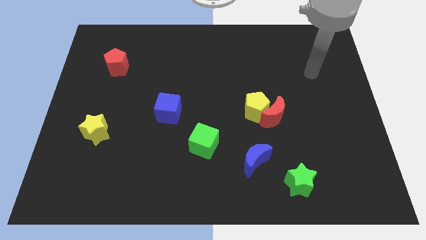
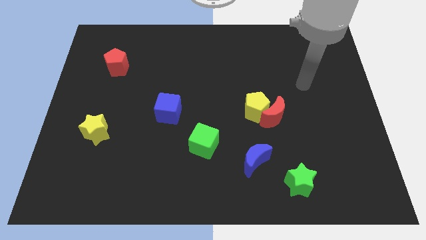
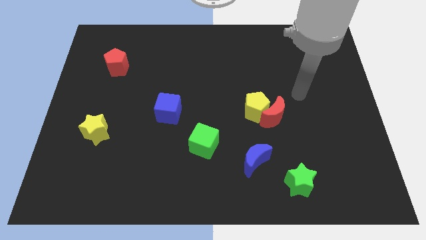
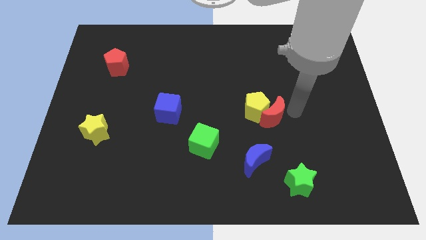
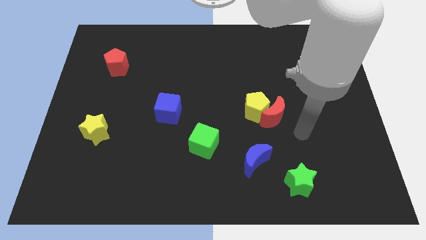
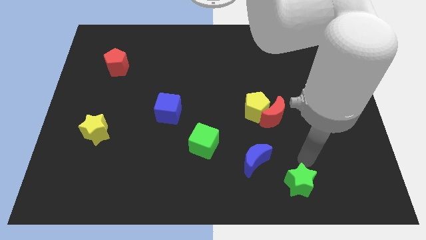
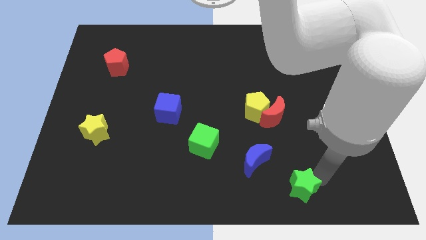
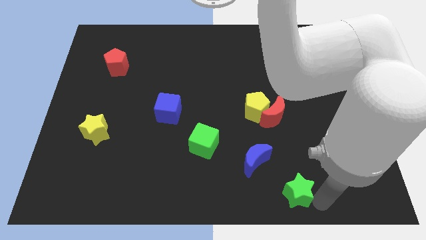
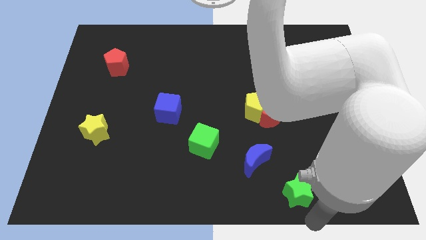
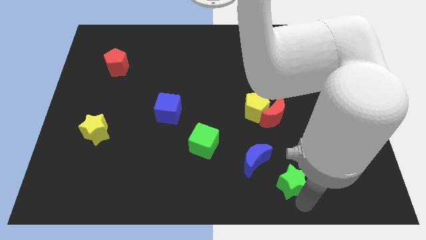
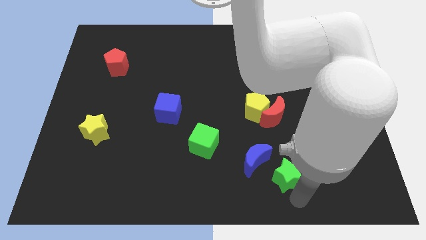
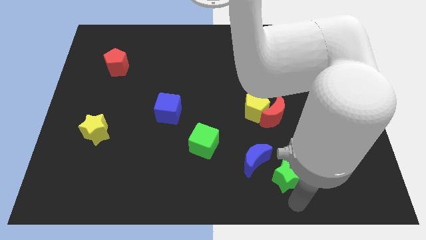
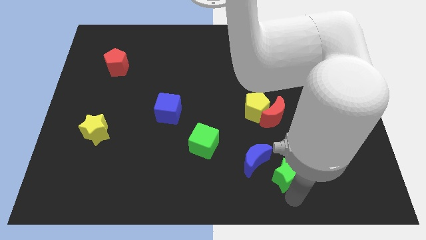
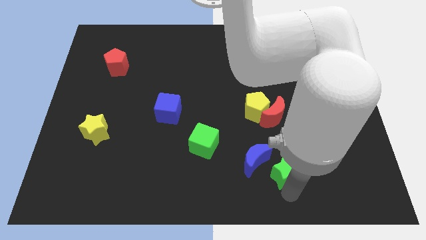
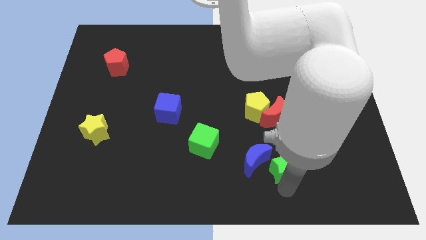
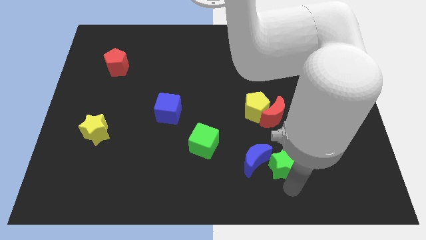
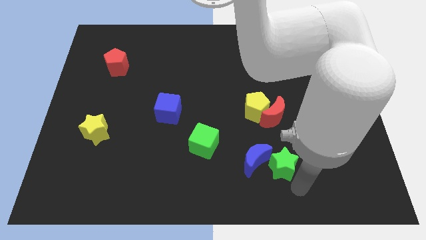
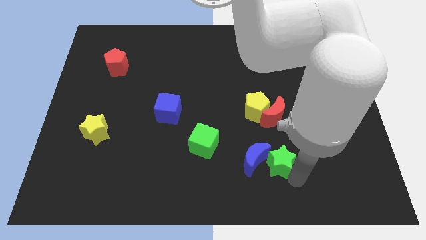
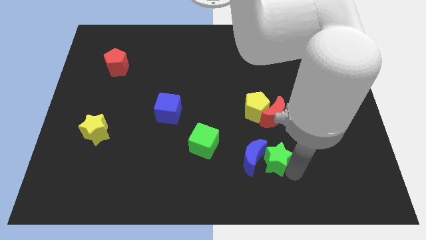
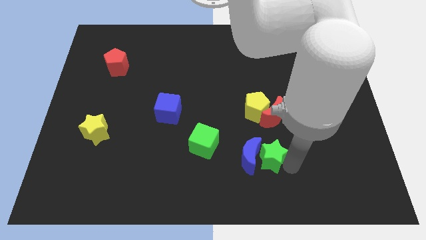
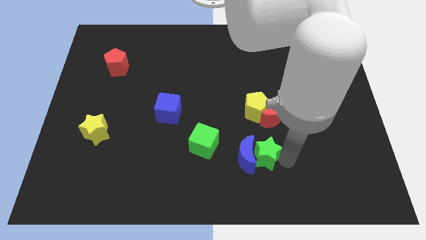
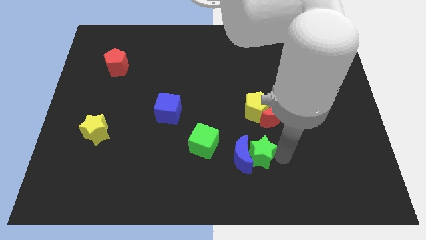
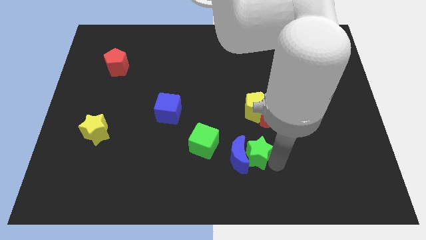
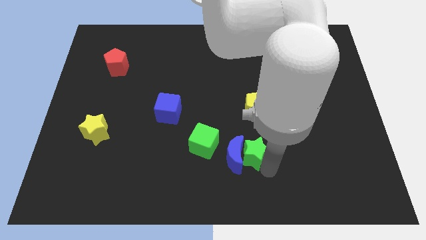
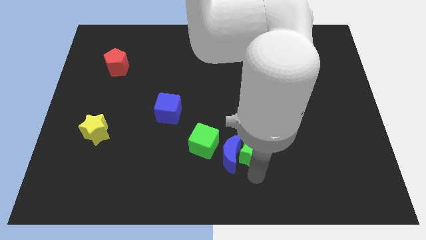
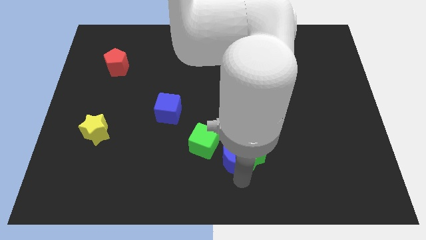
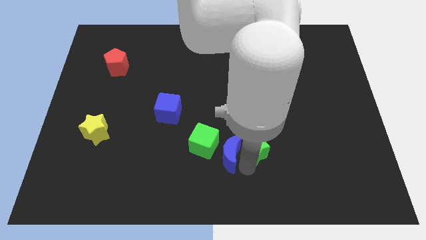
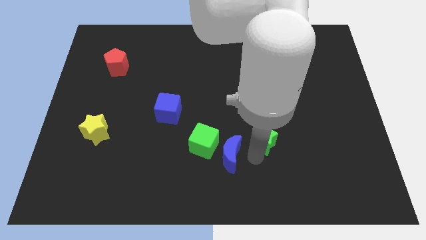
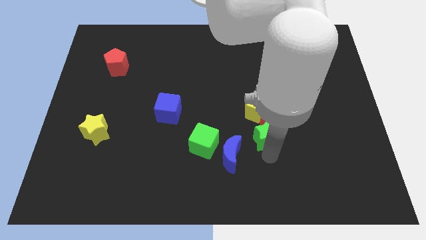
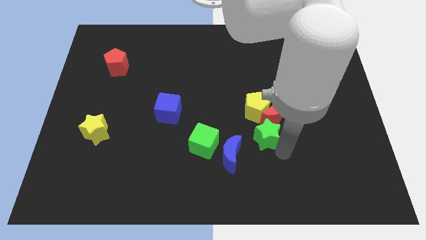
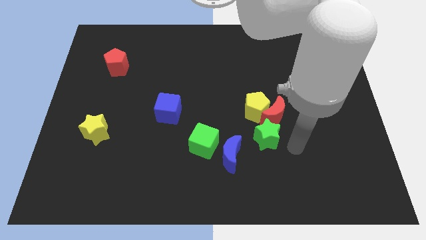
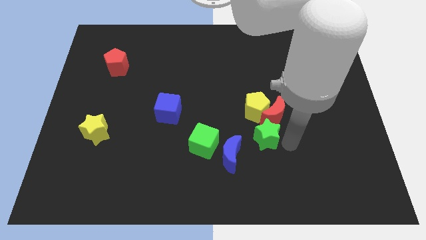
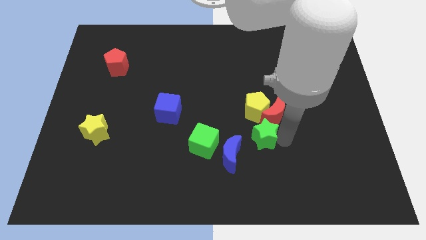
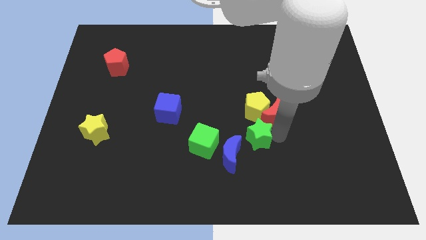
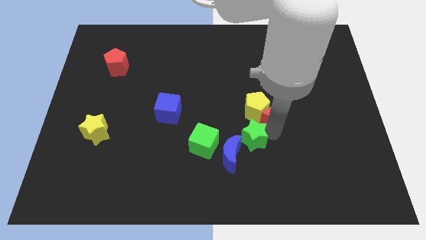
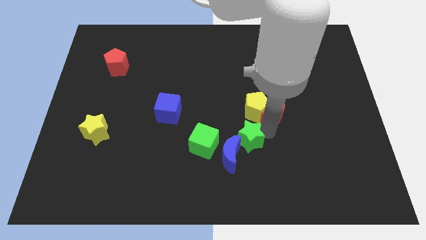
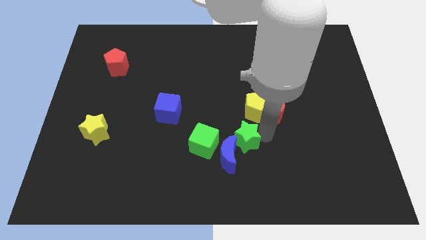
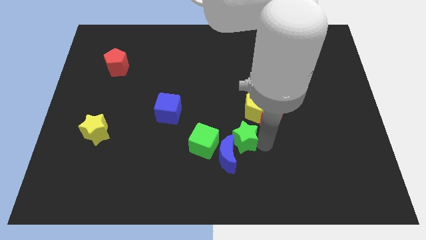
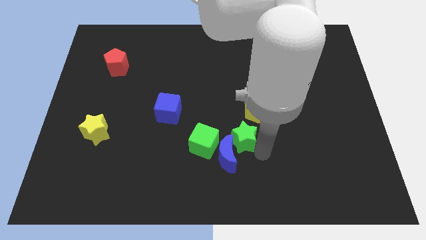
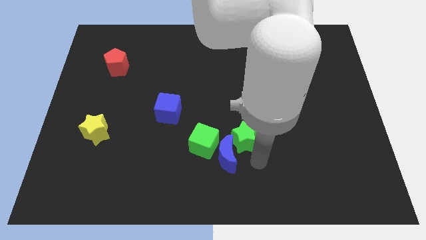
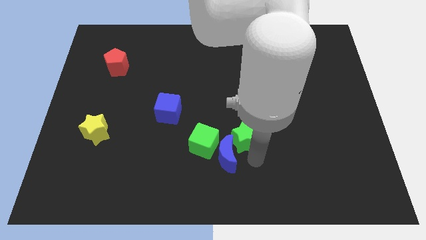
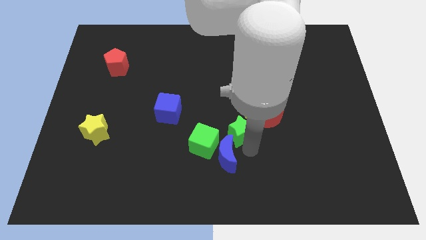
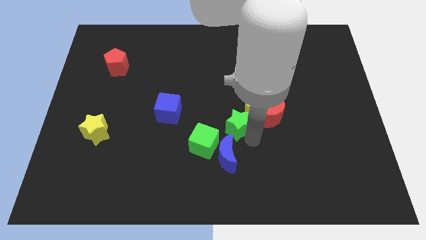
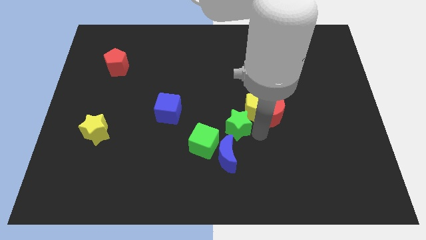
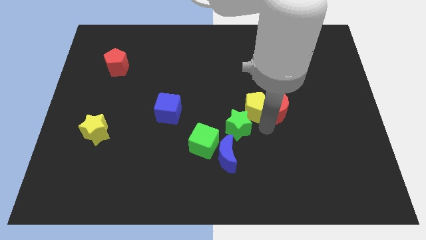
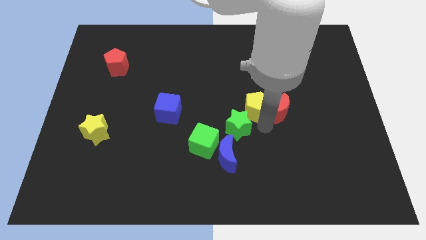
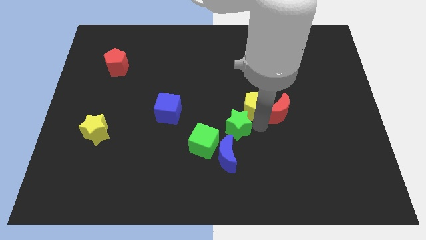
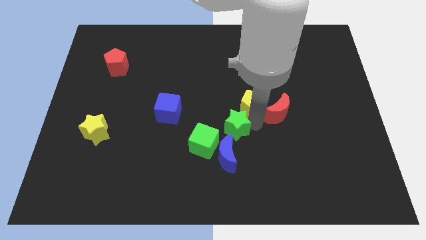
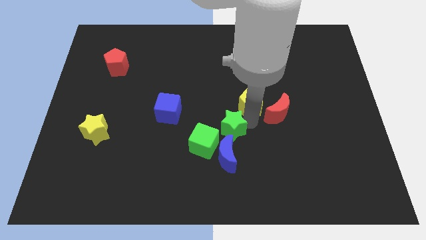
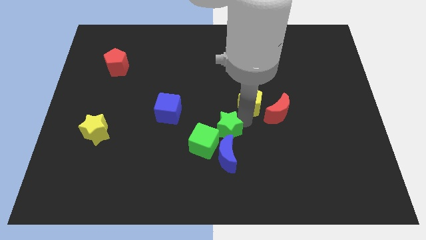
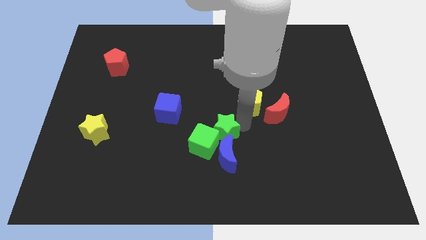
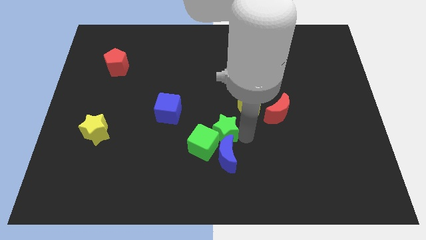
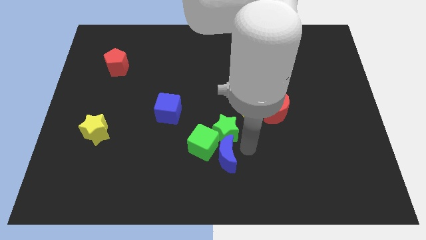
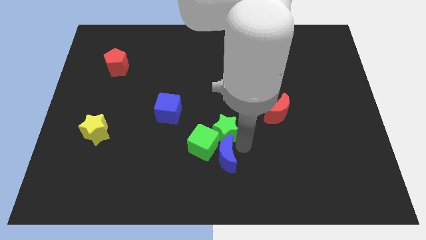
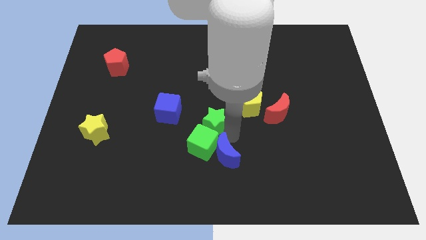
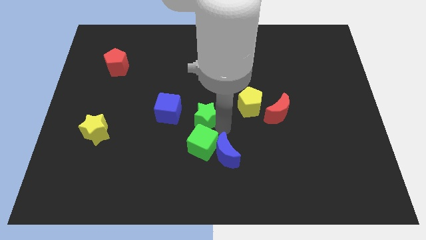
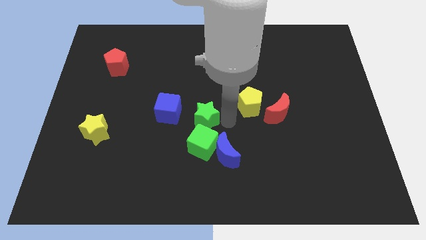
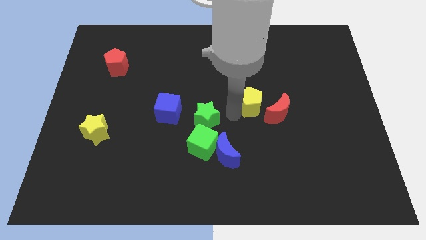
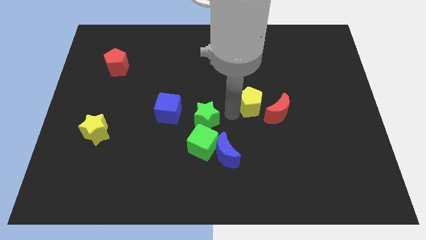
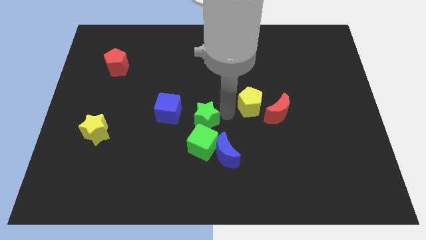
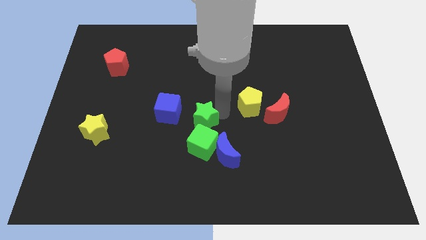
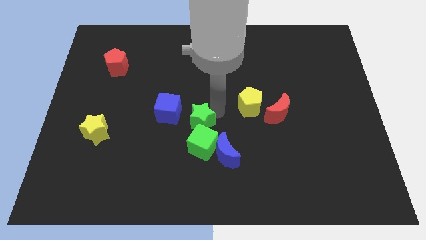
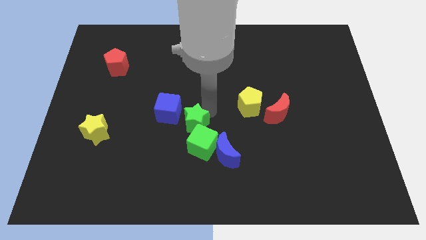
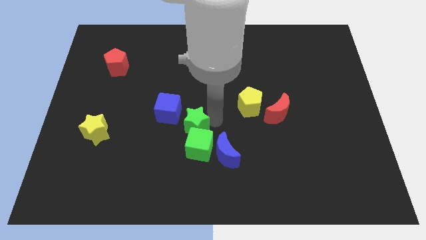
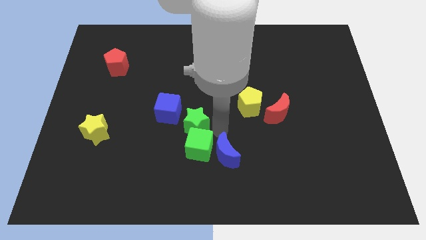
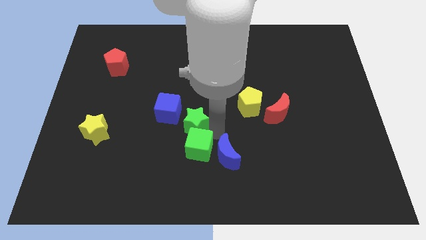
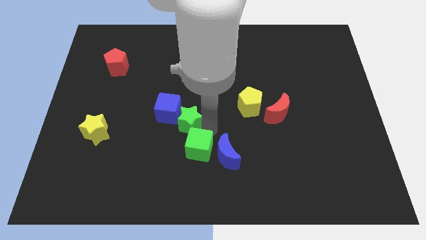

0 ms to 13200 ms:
put the green star towards the blue cube
